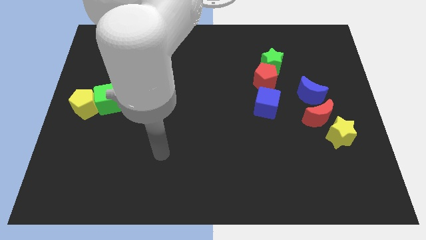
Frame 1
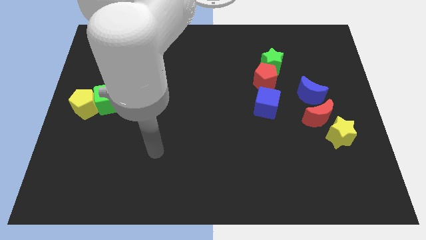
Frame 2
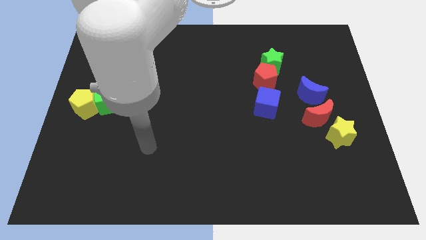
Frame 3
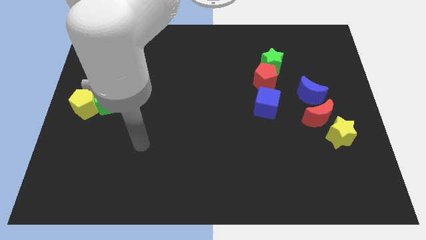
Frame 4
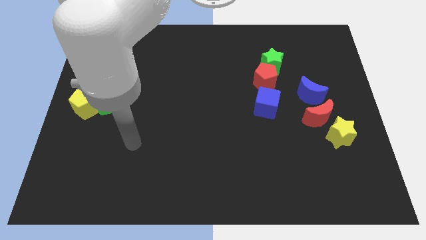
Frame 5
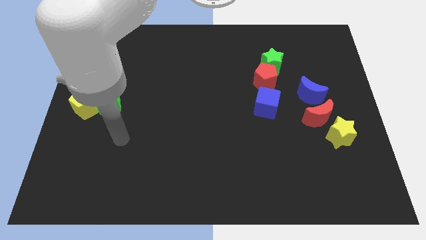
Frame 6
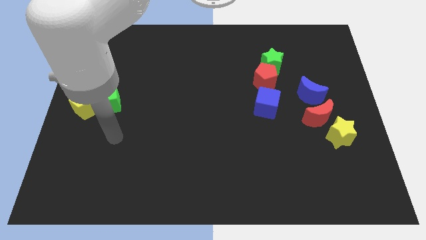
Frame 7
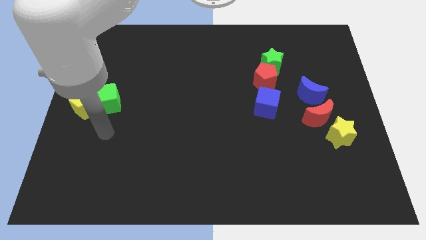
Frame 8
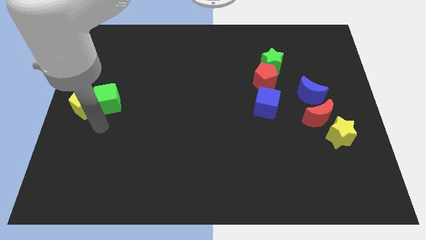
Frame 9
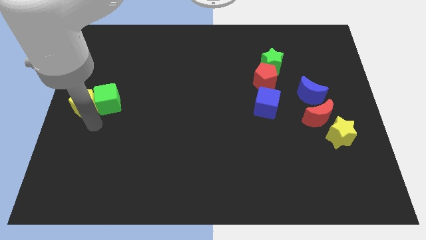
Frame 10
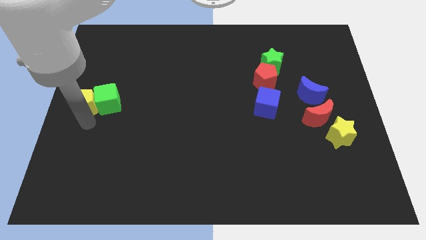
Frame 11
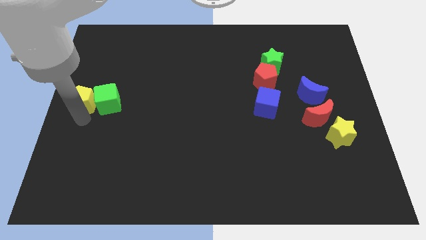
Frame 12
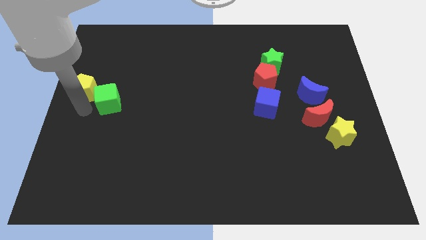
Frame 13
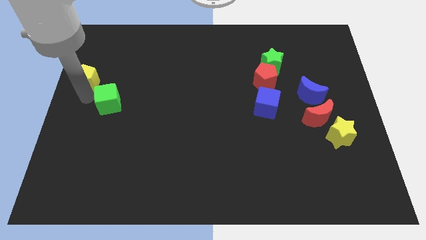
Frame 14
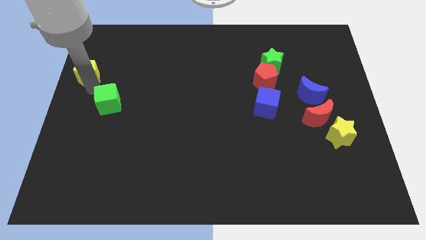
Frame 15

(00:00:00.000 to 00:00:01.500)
pull the green cube apart from the yellow pentagon

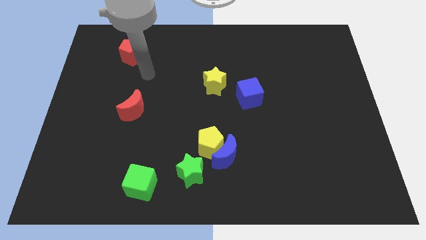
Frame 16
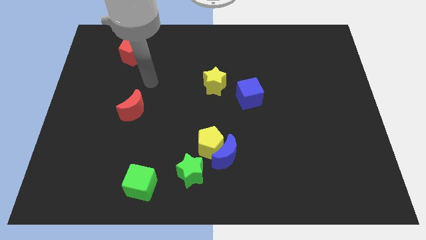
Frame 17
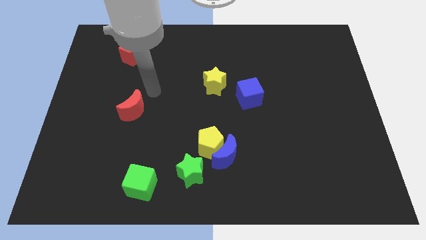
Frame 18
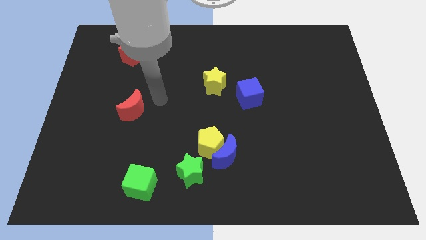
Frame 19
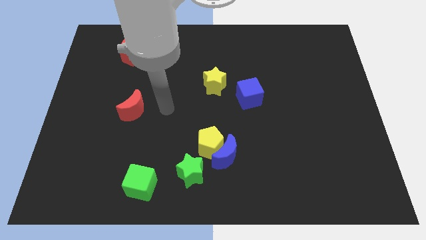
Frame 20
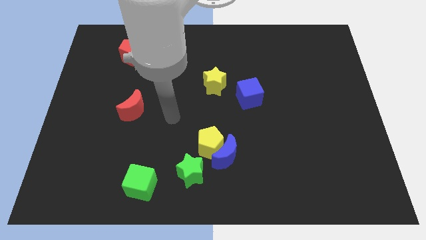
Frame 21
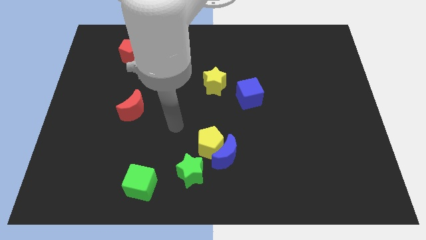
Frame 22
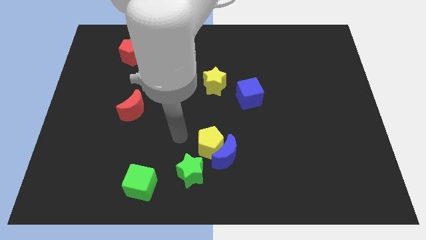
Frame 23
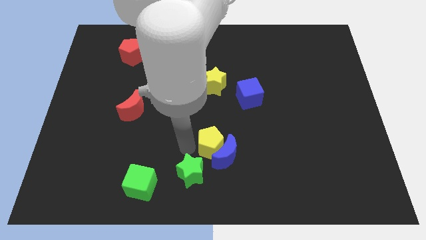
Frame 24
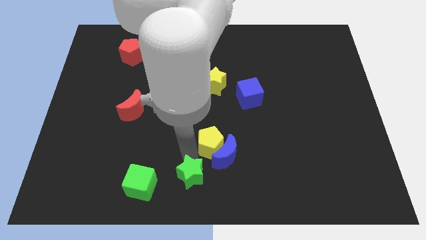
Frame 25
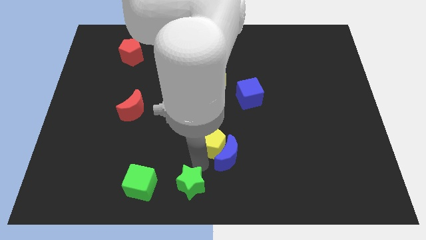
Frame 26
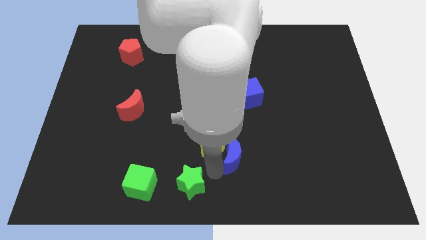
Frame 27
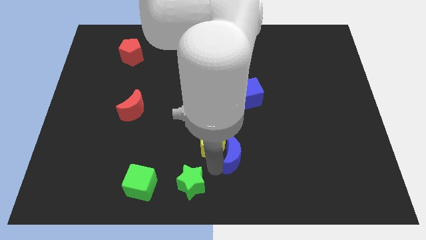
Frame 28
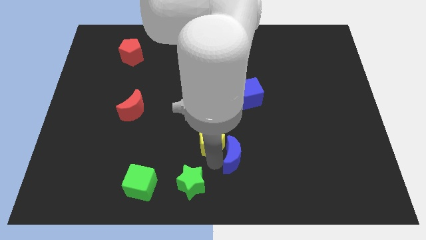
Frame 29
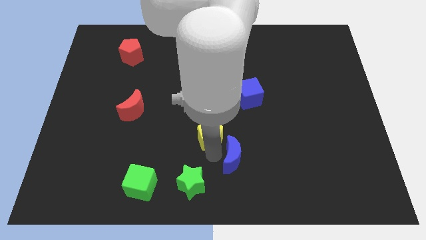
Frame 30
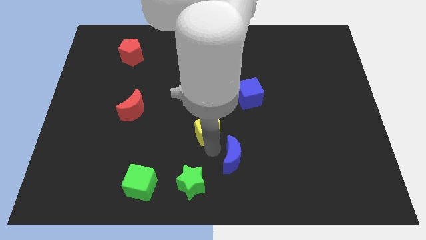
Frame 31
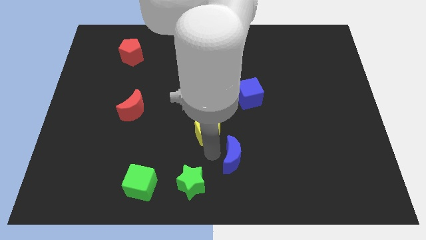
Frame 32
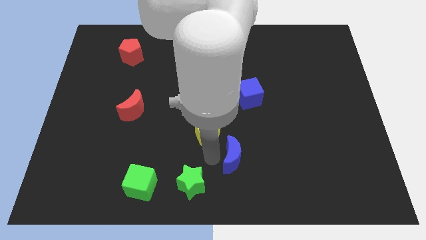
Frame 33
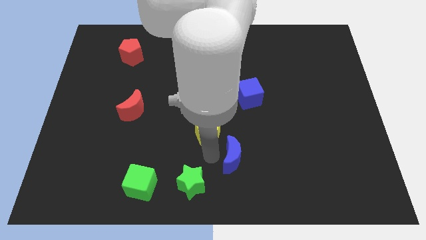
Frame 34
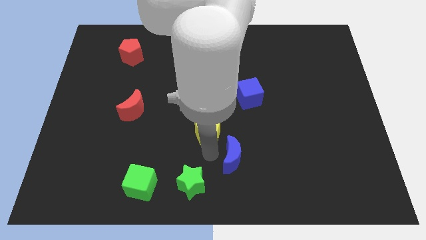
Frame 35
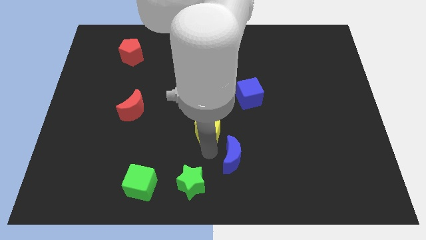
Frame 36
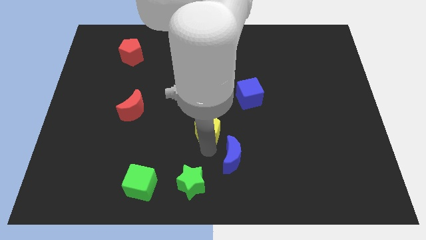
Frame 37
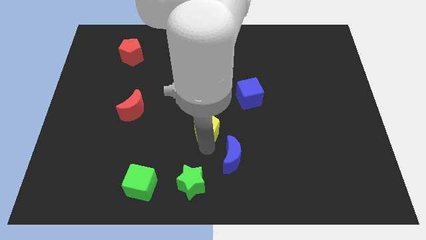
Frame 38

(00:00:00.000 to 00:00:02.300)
move the yellow pentagon away from the blue moon and green star

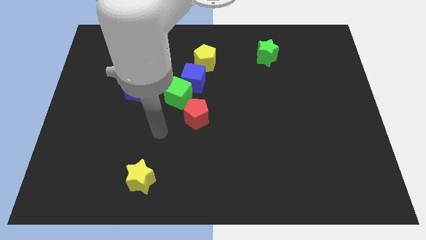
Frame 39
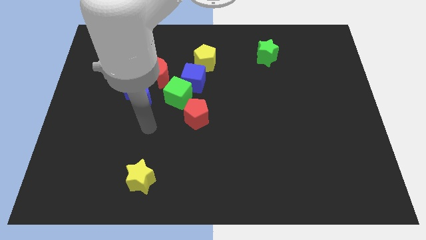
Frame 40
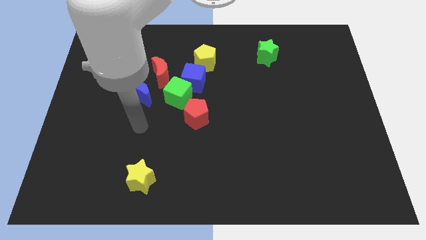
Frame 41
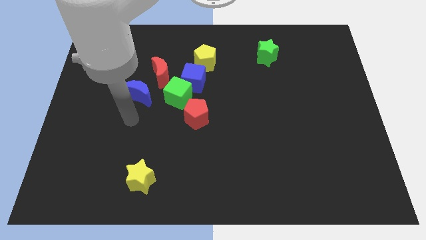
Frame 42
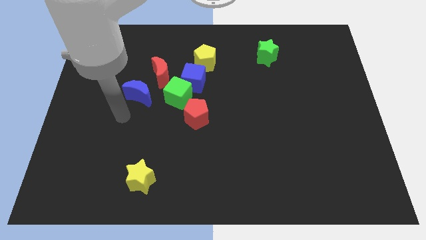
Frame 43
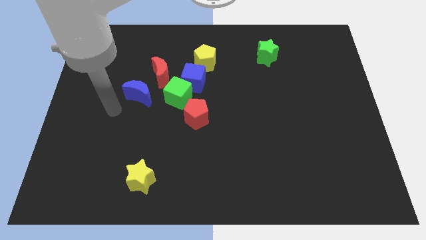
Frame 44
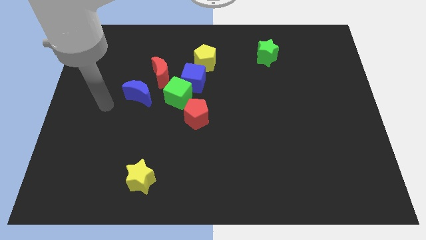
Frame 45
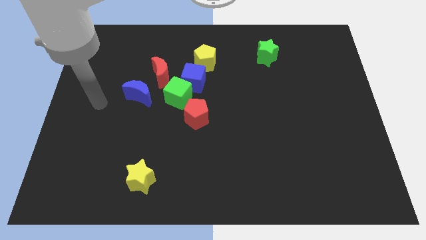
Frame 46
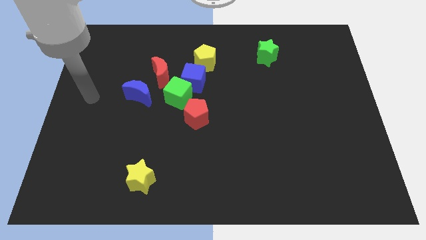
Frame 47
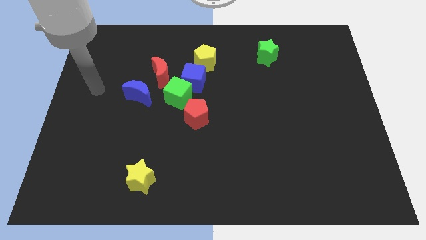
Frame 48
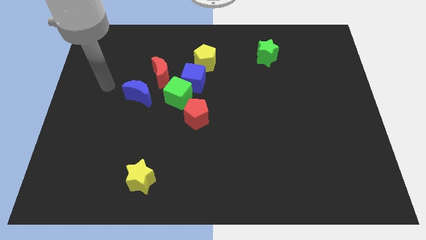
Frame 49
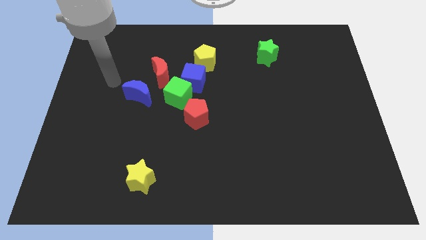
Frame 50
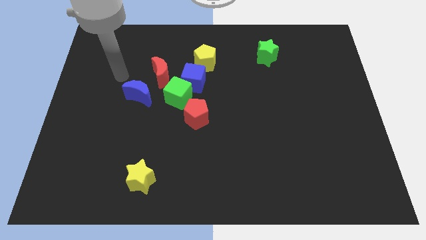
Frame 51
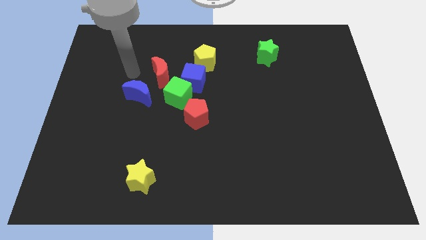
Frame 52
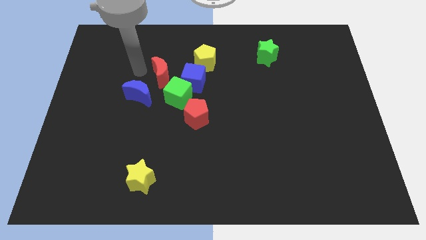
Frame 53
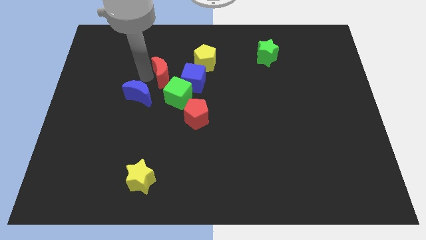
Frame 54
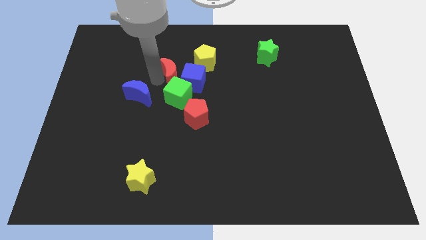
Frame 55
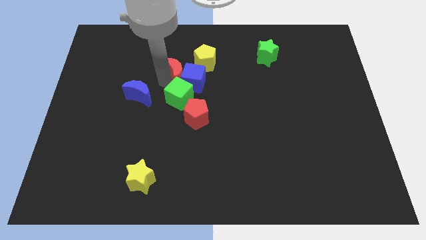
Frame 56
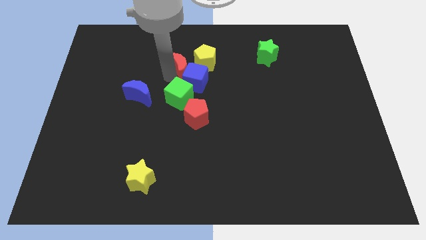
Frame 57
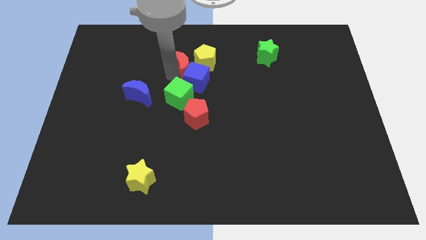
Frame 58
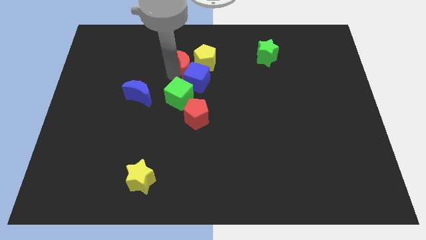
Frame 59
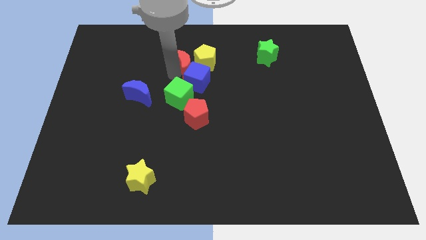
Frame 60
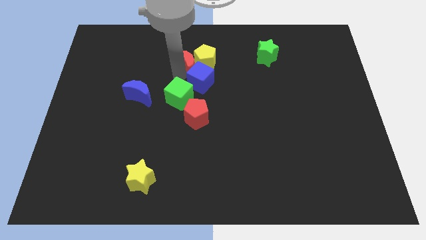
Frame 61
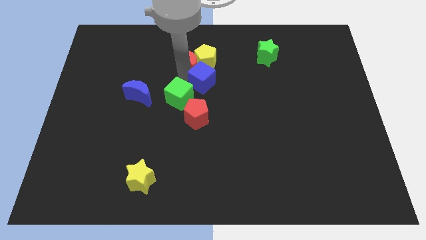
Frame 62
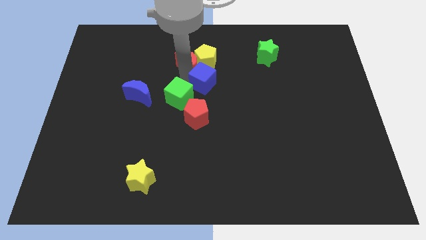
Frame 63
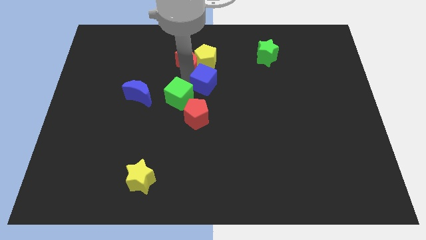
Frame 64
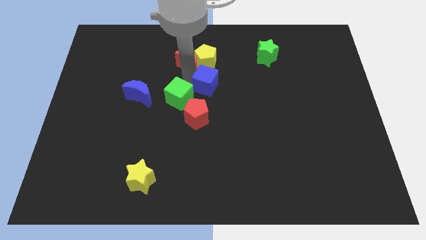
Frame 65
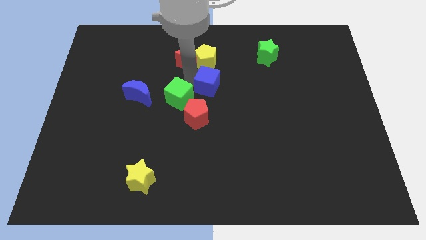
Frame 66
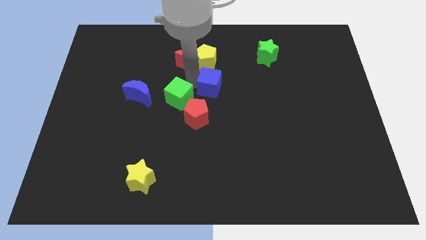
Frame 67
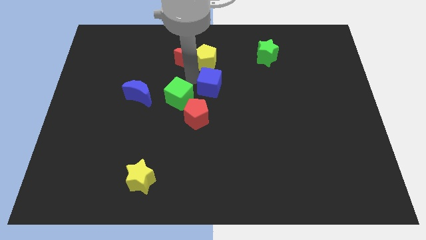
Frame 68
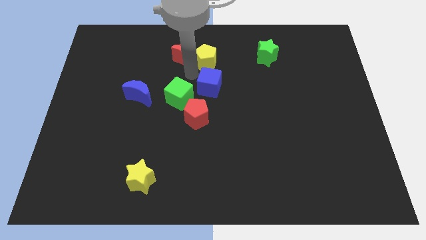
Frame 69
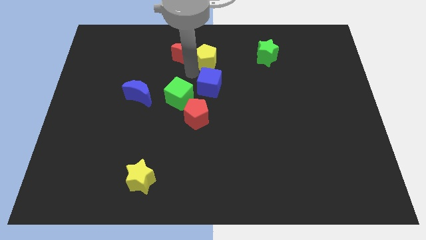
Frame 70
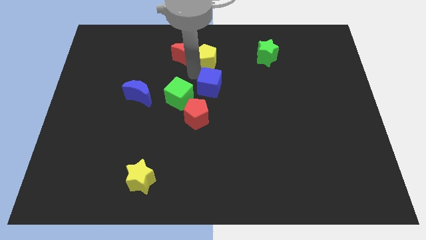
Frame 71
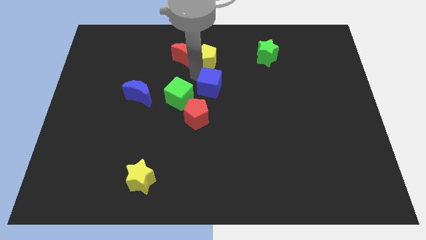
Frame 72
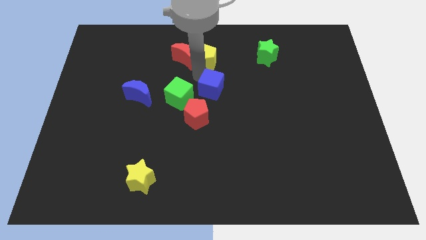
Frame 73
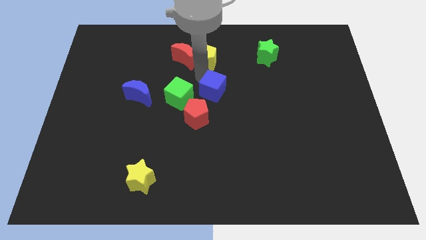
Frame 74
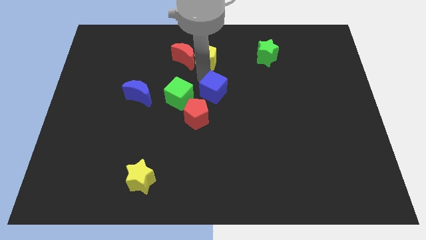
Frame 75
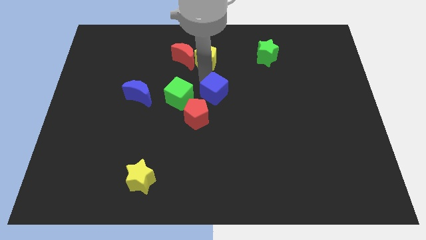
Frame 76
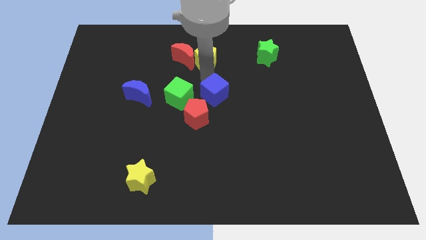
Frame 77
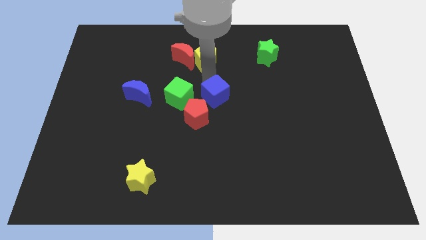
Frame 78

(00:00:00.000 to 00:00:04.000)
separate the blue cube from the green cube, yellow pentagon, and red moon

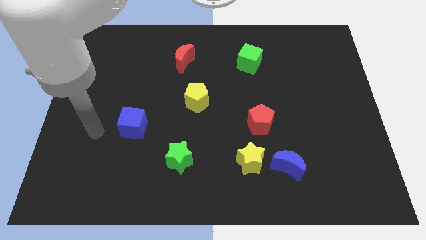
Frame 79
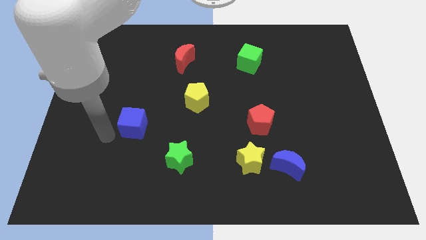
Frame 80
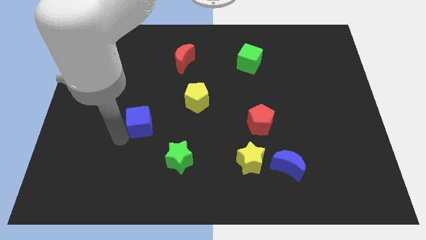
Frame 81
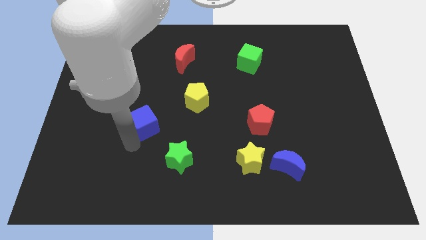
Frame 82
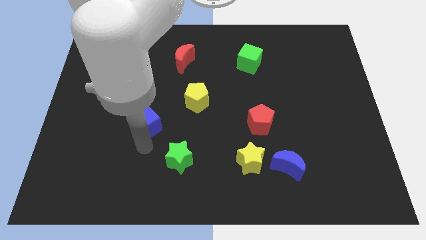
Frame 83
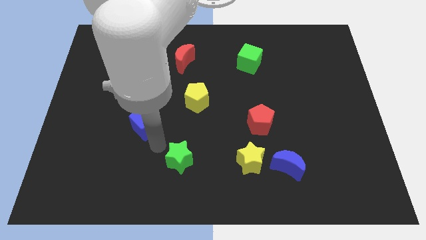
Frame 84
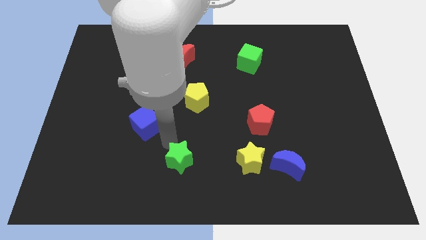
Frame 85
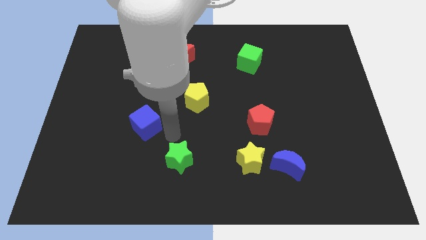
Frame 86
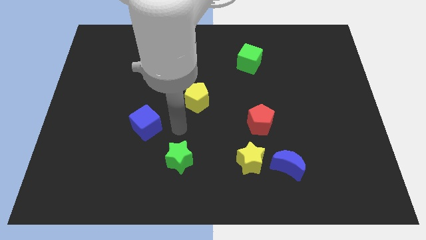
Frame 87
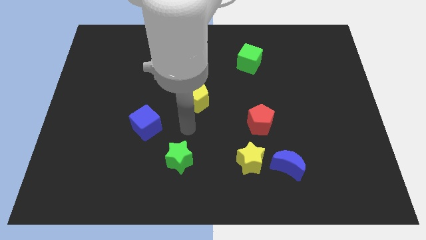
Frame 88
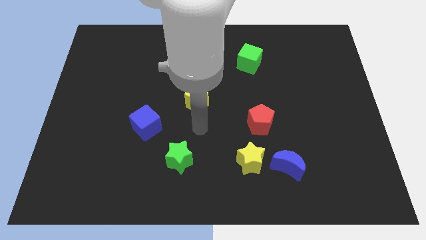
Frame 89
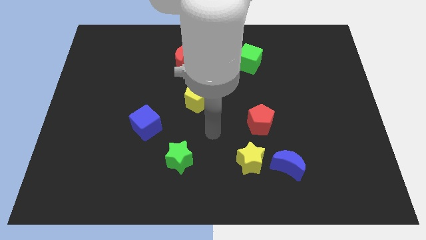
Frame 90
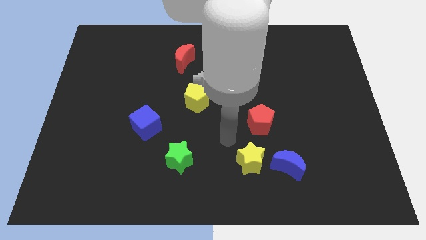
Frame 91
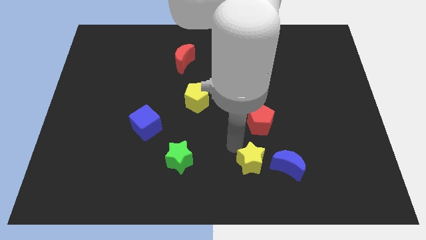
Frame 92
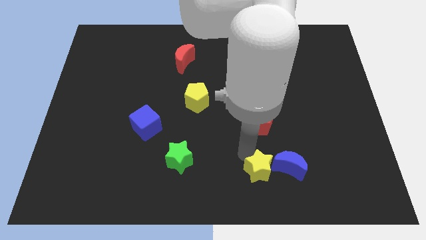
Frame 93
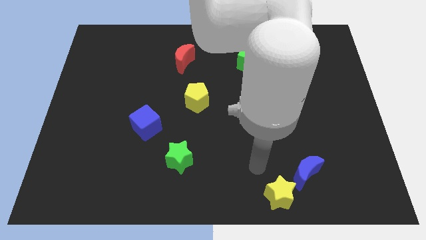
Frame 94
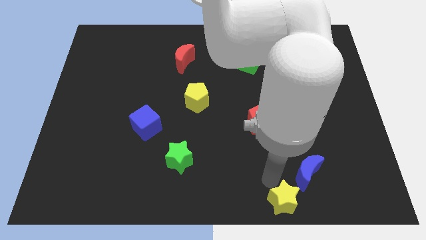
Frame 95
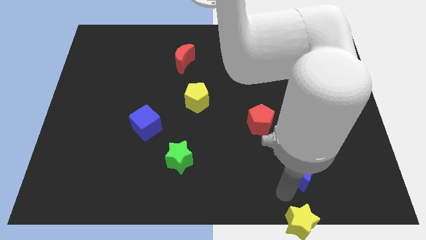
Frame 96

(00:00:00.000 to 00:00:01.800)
pull the blue moon apart from the yellow star

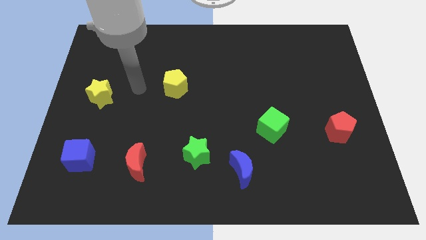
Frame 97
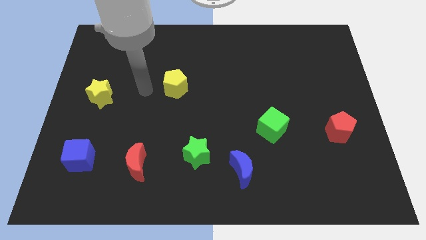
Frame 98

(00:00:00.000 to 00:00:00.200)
pull the blue moon apart from the green star
